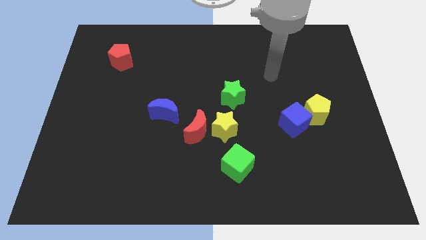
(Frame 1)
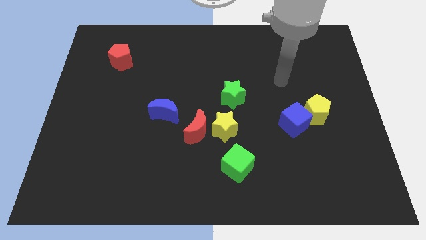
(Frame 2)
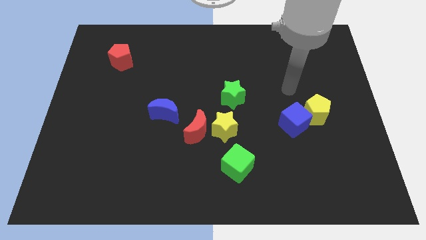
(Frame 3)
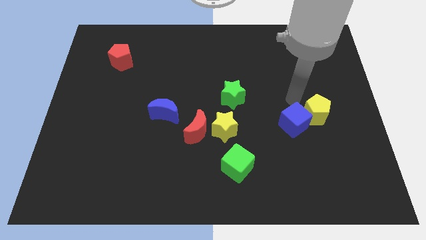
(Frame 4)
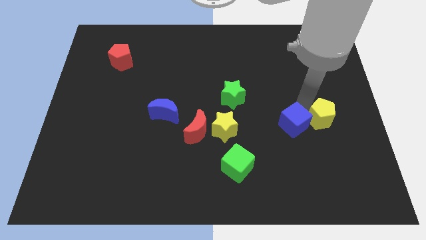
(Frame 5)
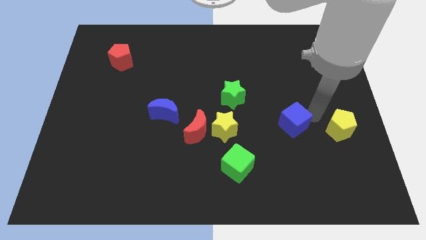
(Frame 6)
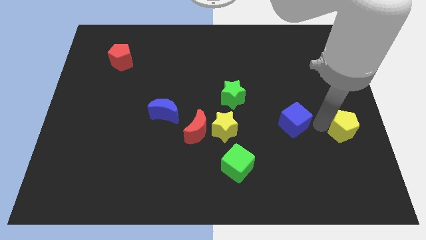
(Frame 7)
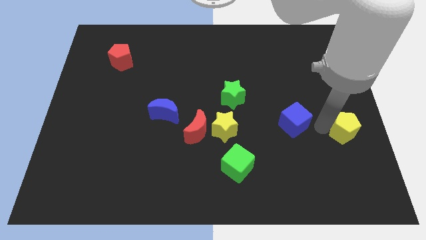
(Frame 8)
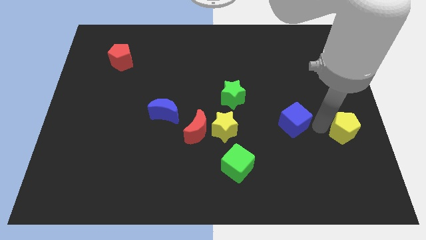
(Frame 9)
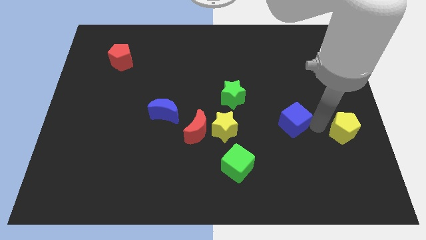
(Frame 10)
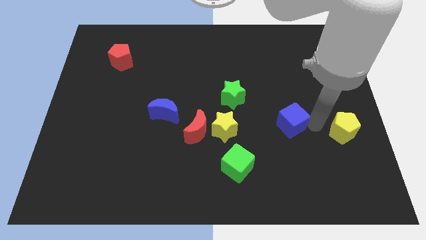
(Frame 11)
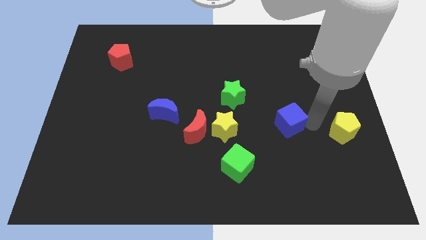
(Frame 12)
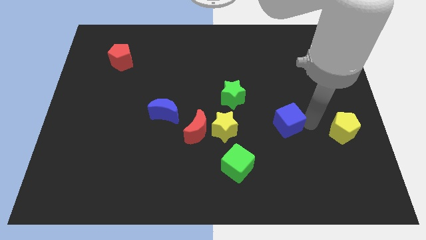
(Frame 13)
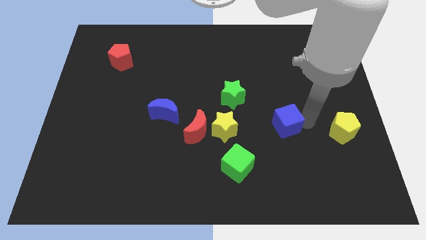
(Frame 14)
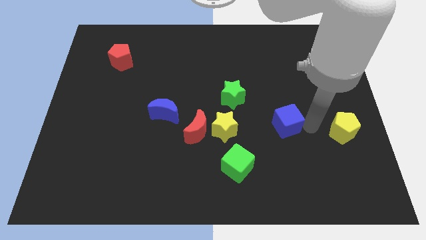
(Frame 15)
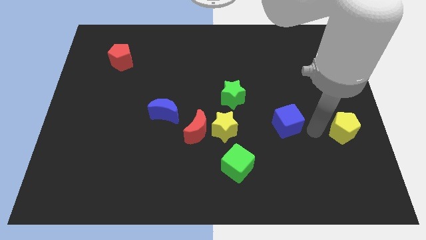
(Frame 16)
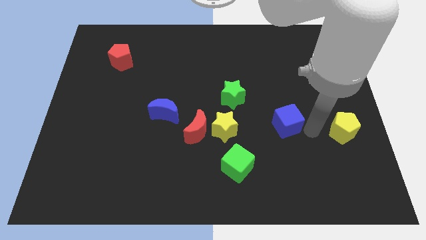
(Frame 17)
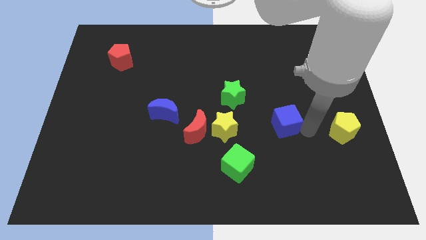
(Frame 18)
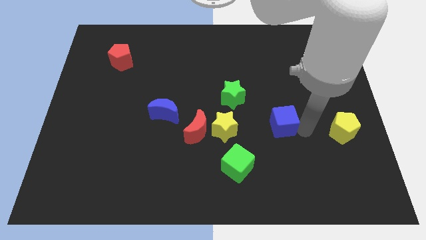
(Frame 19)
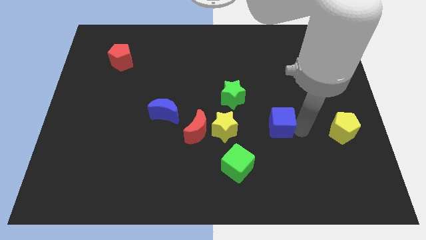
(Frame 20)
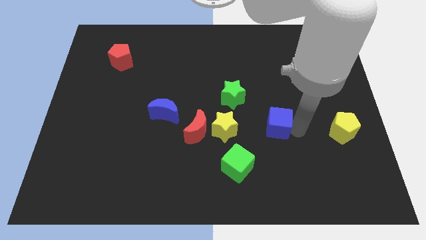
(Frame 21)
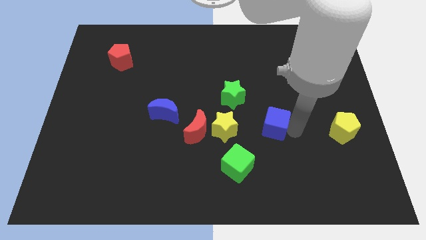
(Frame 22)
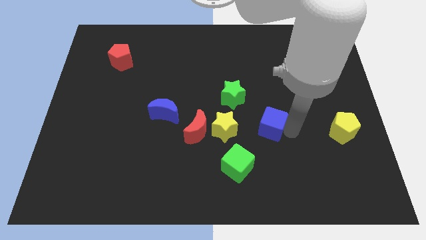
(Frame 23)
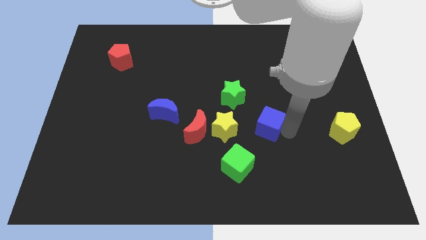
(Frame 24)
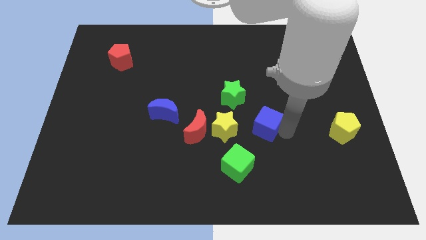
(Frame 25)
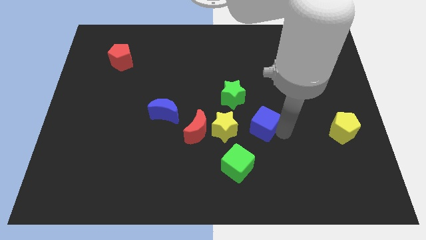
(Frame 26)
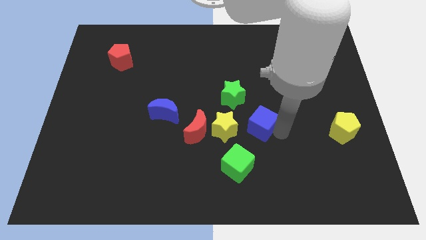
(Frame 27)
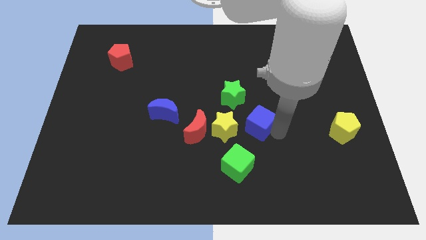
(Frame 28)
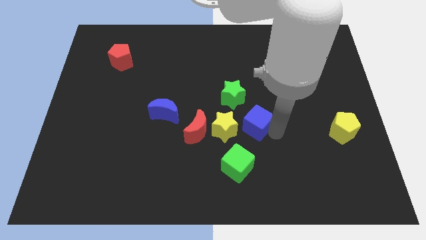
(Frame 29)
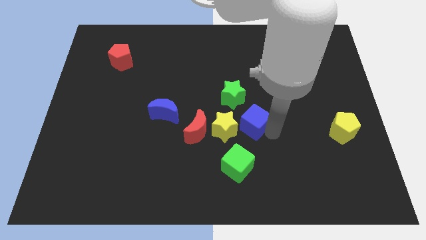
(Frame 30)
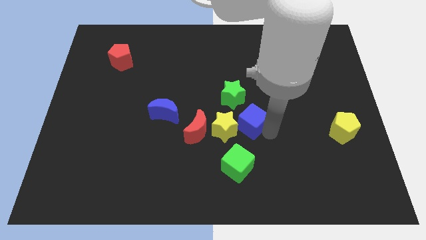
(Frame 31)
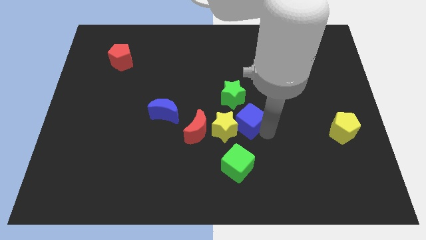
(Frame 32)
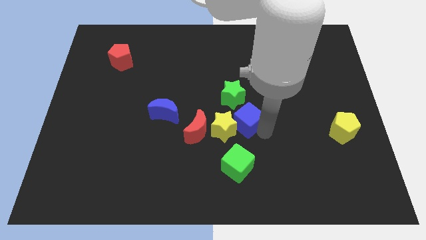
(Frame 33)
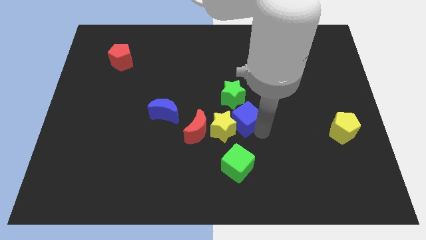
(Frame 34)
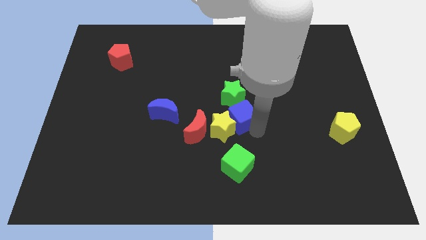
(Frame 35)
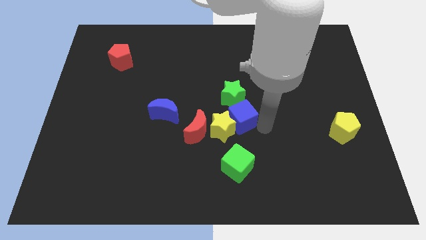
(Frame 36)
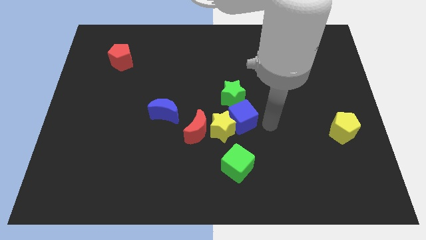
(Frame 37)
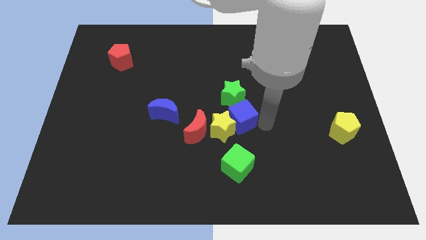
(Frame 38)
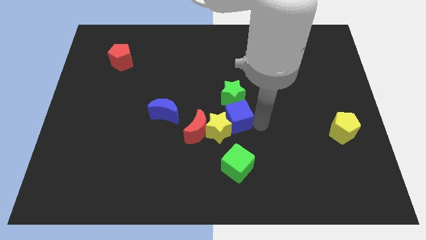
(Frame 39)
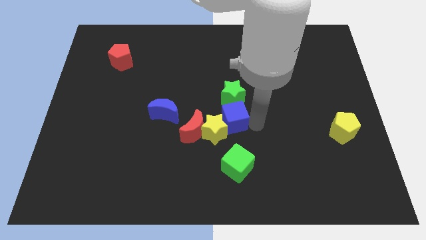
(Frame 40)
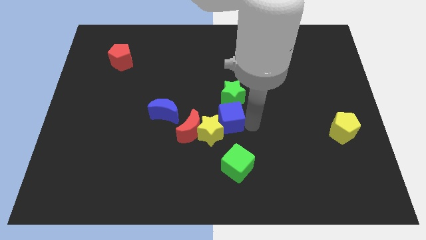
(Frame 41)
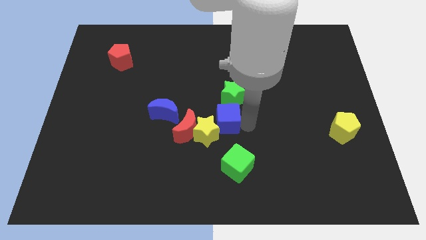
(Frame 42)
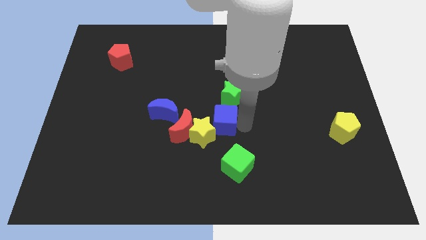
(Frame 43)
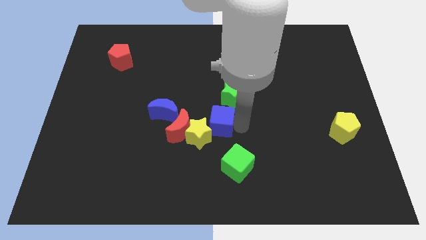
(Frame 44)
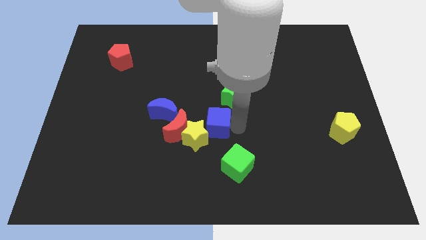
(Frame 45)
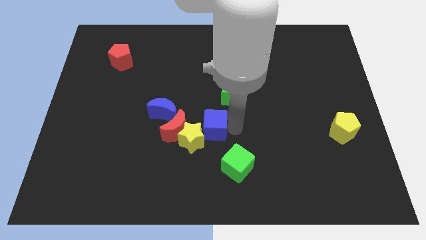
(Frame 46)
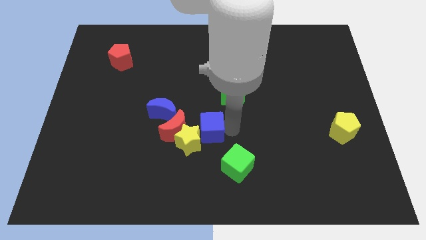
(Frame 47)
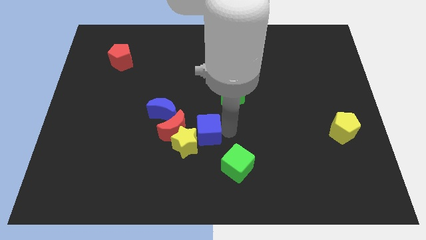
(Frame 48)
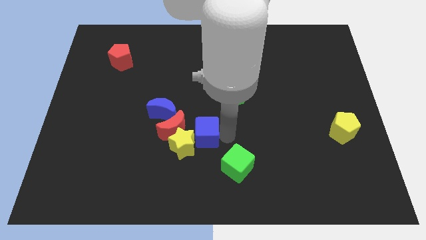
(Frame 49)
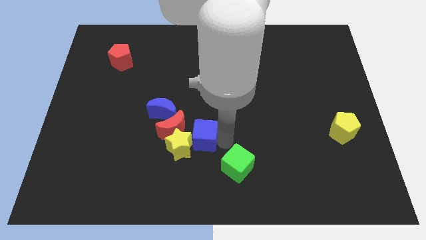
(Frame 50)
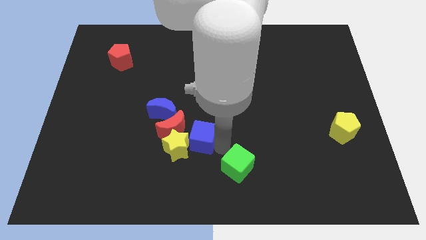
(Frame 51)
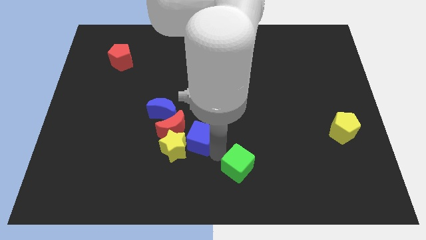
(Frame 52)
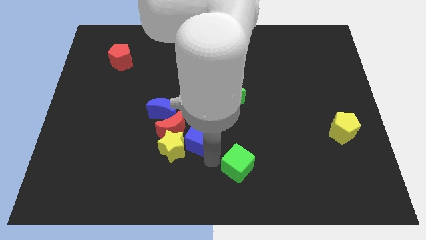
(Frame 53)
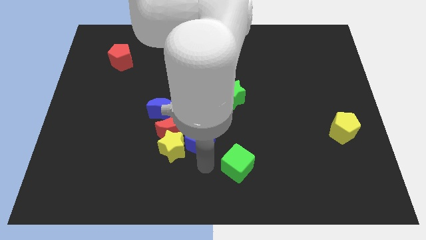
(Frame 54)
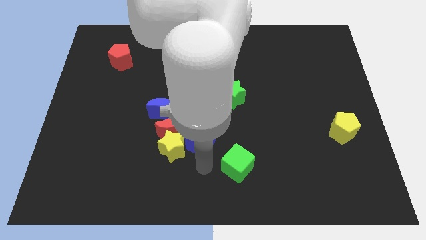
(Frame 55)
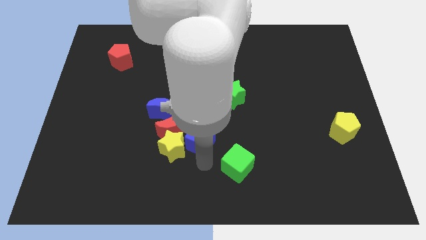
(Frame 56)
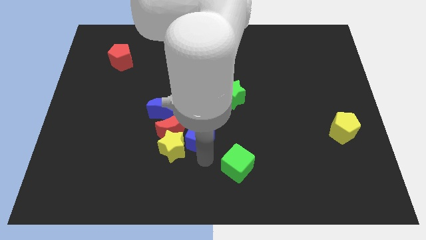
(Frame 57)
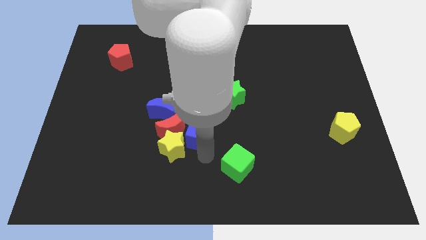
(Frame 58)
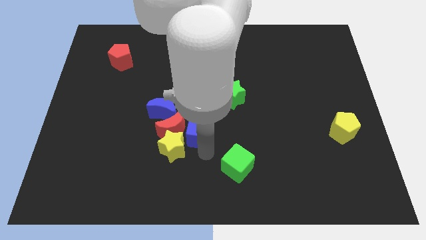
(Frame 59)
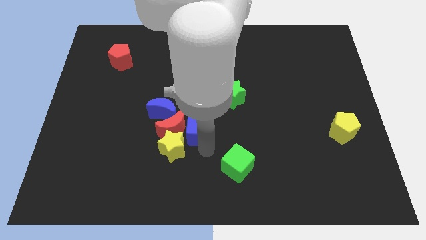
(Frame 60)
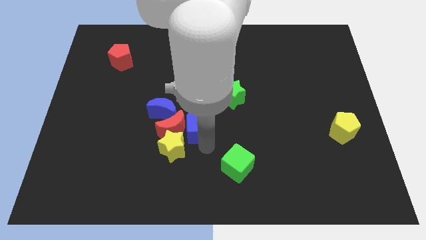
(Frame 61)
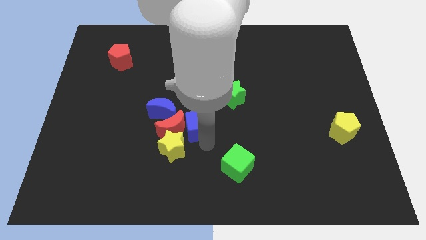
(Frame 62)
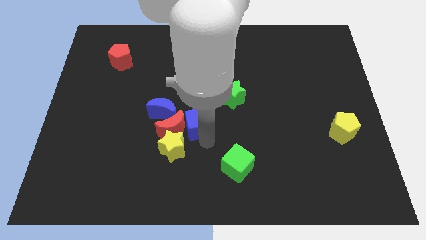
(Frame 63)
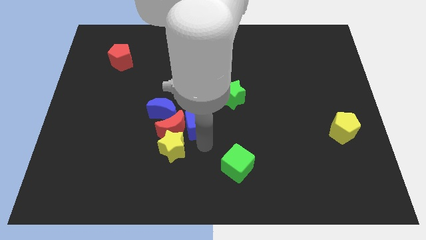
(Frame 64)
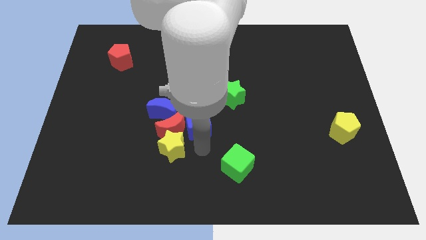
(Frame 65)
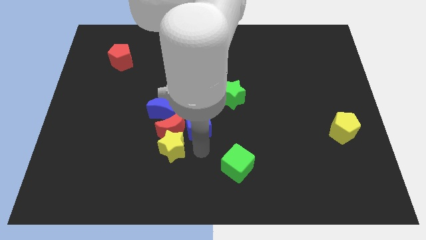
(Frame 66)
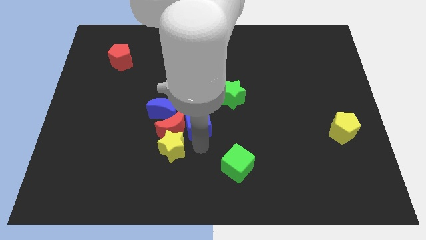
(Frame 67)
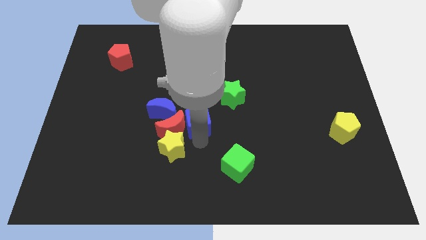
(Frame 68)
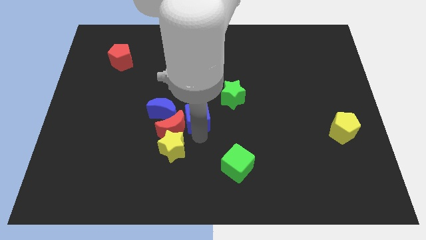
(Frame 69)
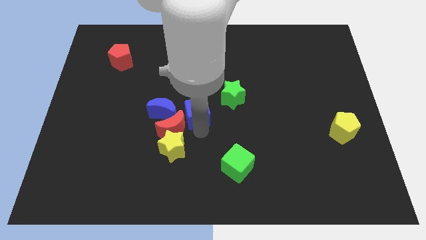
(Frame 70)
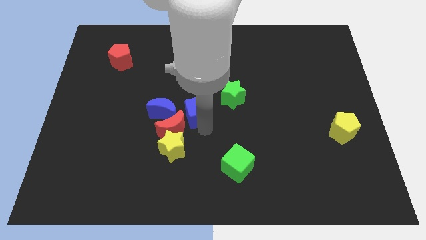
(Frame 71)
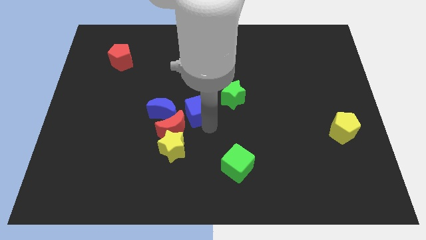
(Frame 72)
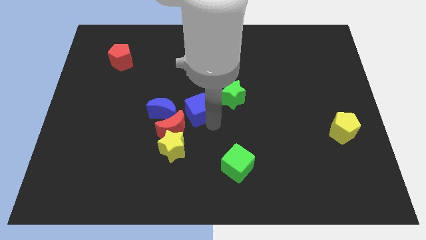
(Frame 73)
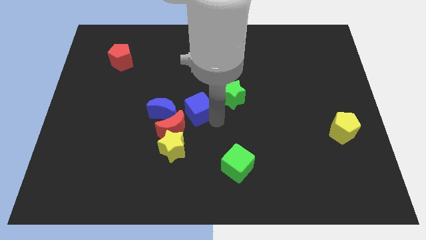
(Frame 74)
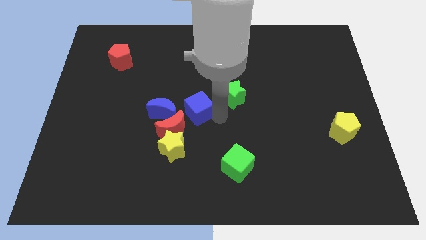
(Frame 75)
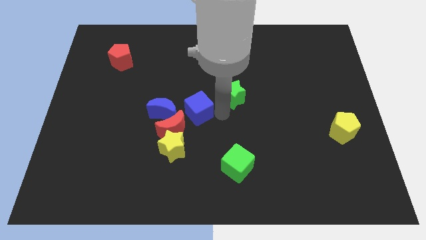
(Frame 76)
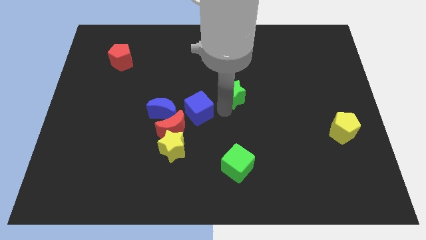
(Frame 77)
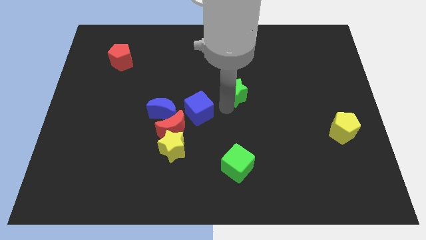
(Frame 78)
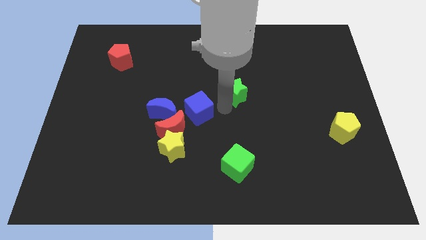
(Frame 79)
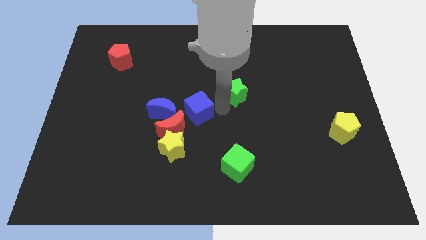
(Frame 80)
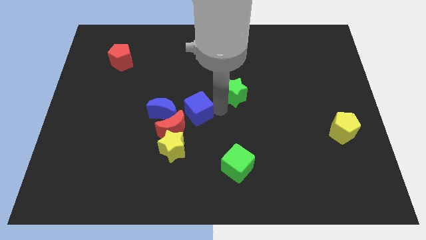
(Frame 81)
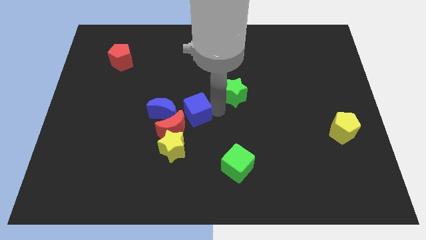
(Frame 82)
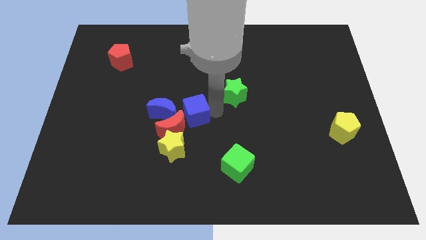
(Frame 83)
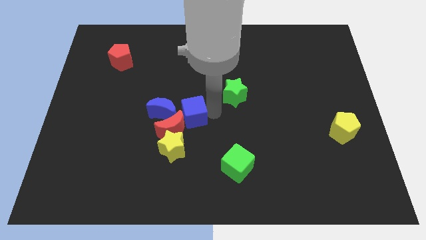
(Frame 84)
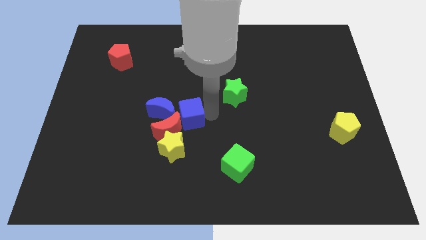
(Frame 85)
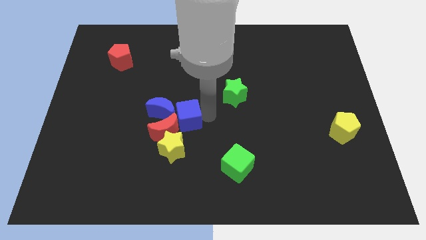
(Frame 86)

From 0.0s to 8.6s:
move the blue cube next to the blue moon
